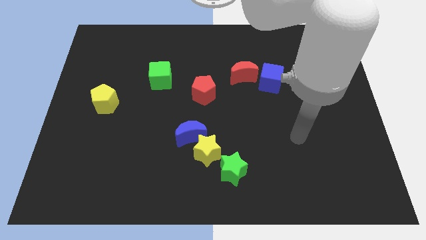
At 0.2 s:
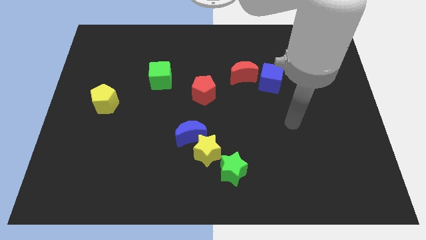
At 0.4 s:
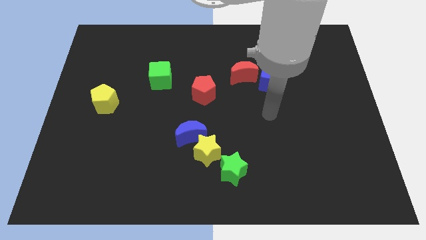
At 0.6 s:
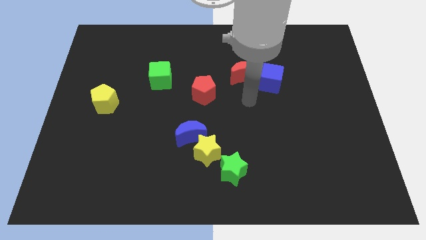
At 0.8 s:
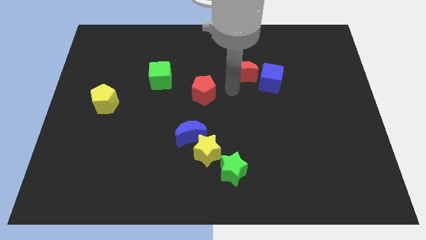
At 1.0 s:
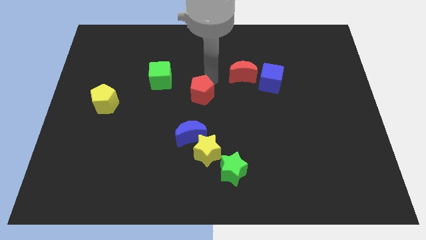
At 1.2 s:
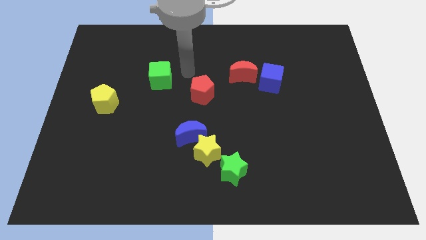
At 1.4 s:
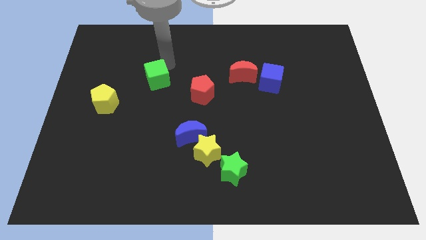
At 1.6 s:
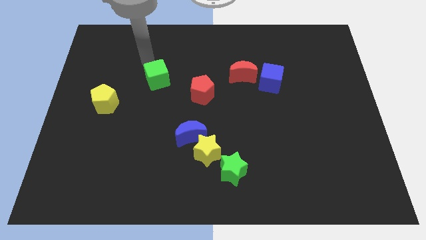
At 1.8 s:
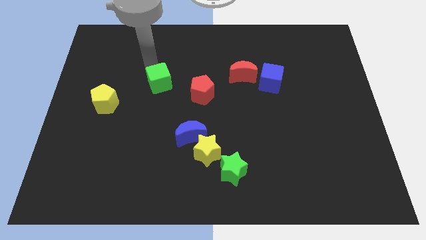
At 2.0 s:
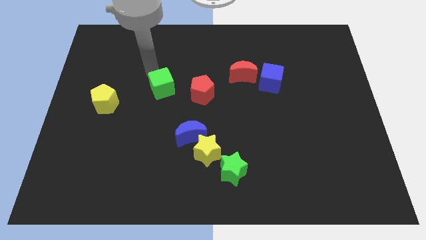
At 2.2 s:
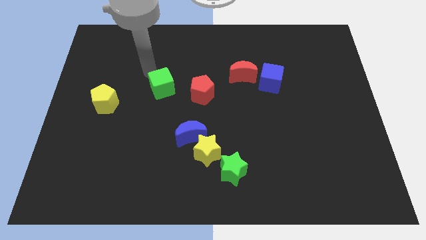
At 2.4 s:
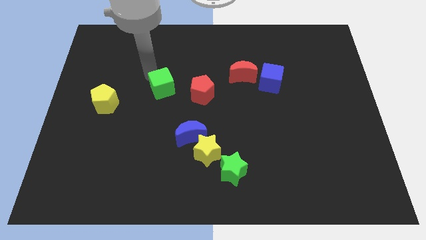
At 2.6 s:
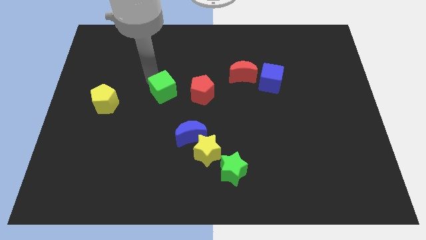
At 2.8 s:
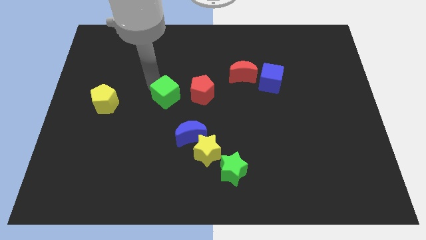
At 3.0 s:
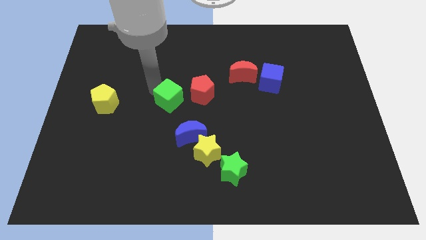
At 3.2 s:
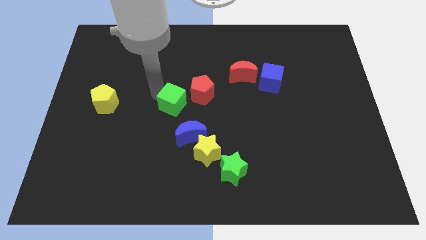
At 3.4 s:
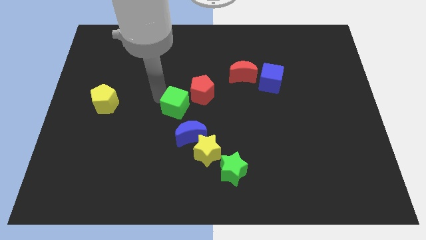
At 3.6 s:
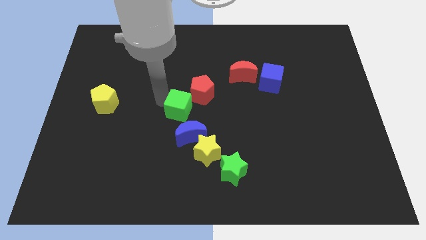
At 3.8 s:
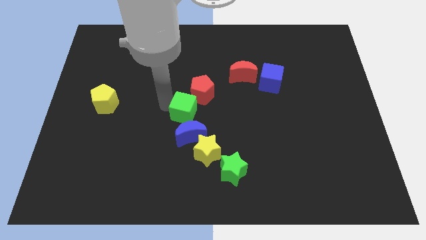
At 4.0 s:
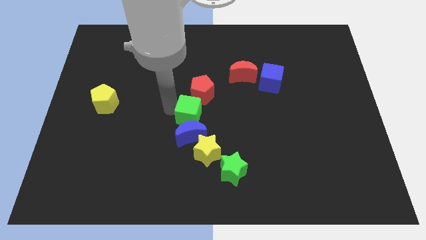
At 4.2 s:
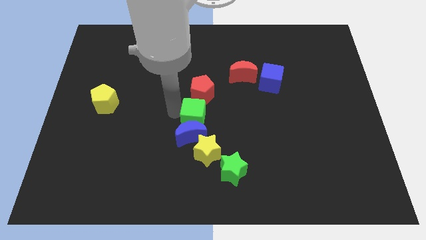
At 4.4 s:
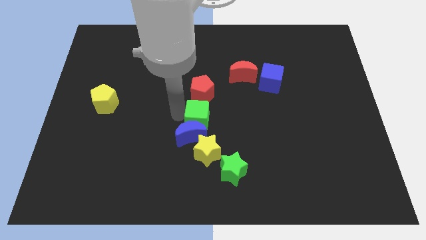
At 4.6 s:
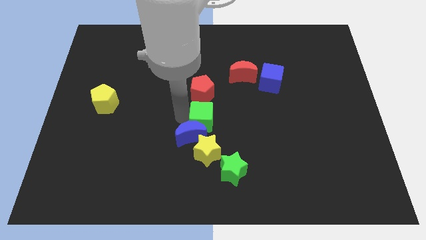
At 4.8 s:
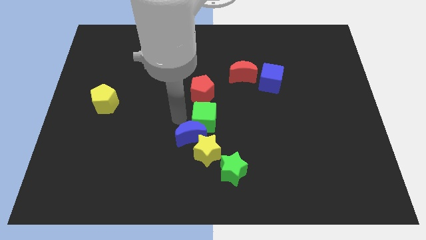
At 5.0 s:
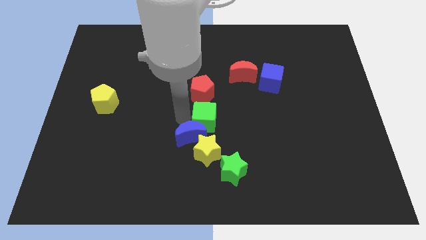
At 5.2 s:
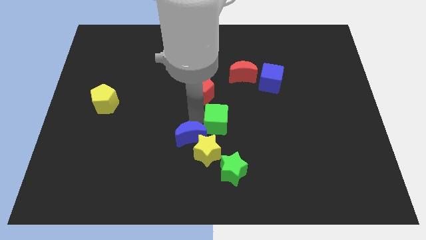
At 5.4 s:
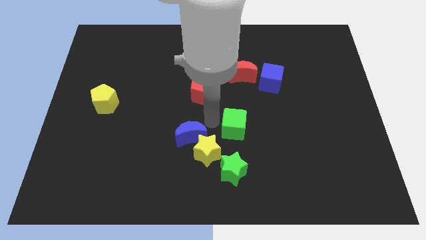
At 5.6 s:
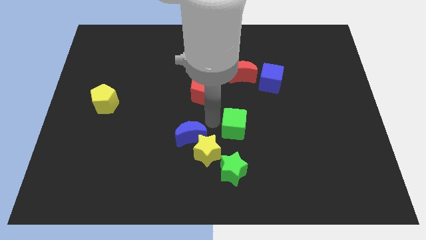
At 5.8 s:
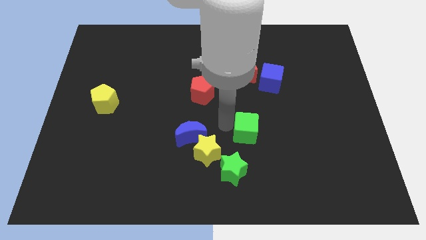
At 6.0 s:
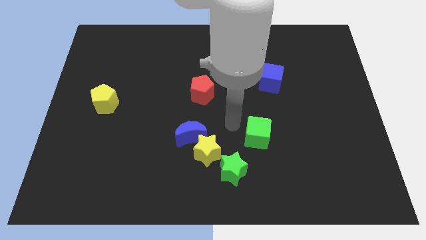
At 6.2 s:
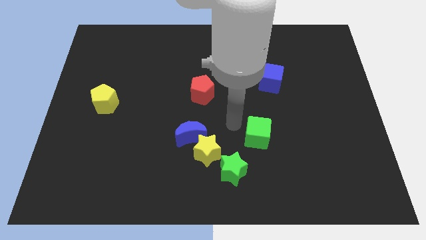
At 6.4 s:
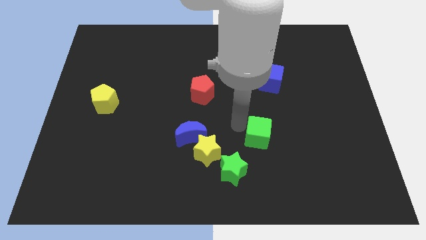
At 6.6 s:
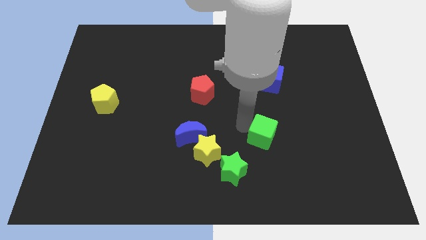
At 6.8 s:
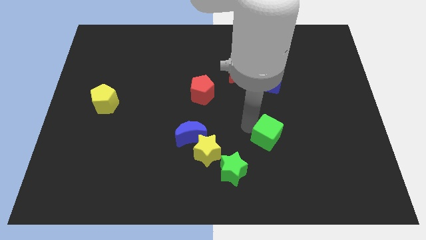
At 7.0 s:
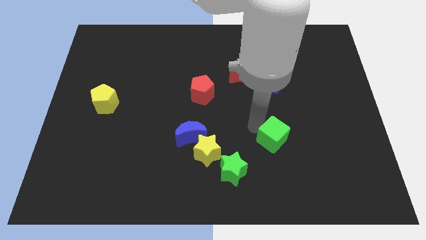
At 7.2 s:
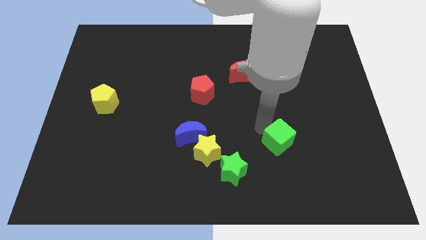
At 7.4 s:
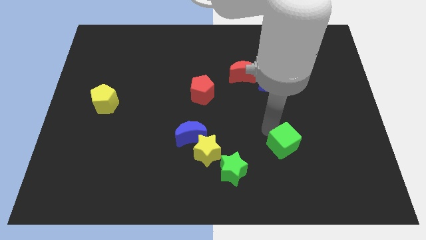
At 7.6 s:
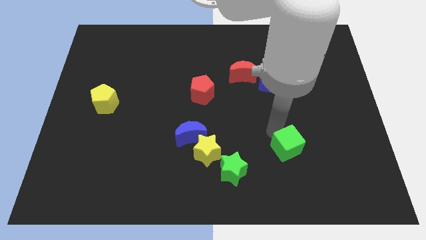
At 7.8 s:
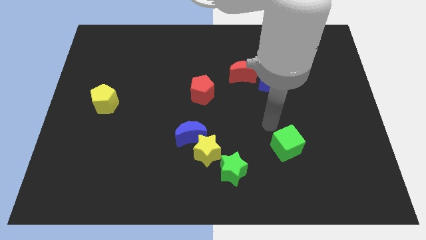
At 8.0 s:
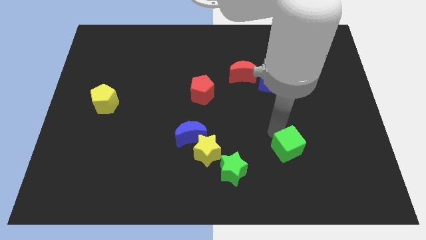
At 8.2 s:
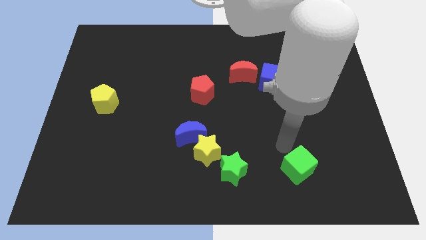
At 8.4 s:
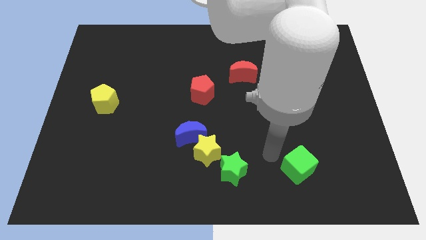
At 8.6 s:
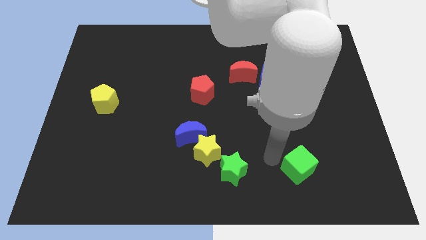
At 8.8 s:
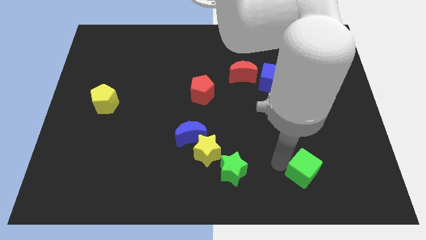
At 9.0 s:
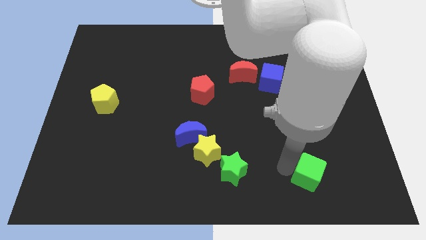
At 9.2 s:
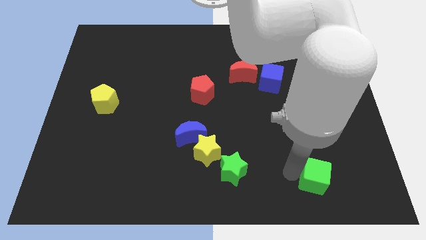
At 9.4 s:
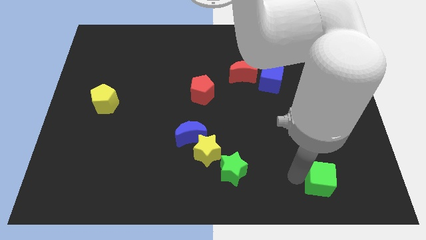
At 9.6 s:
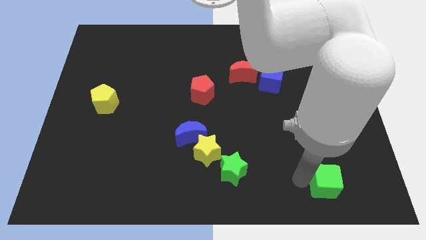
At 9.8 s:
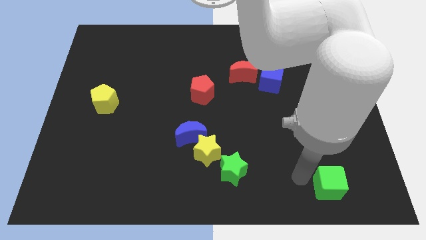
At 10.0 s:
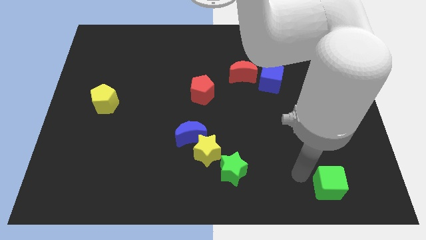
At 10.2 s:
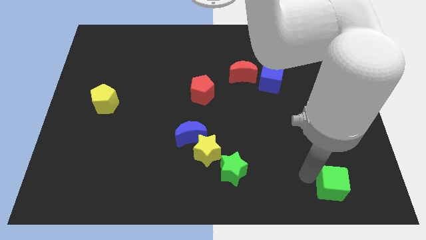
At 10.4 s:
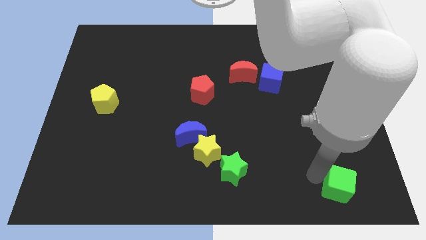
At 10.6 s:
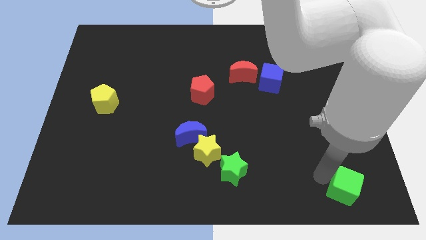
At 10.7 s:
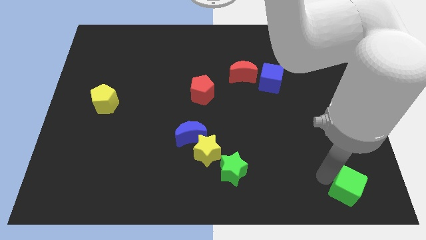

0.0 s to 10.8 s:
put the green cube to the bottom right

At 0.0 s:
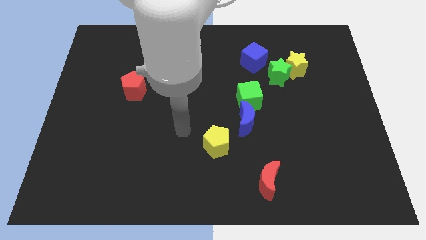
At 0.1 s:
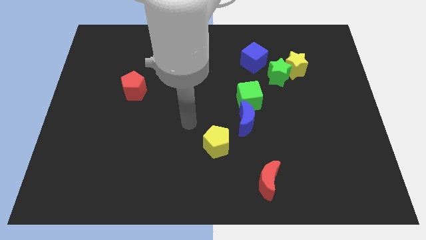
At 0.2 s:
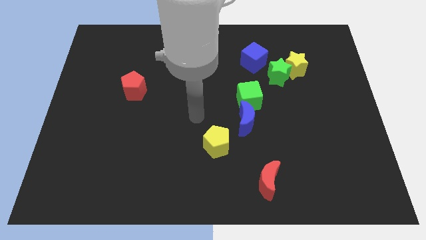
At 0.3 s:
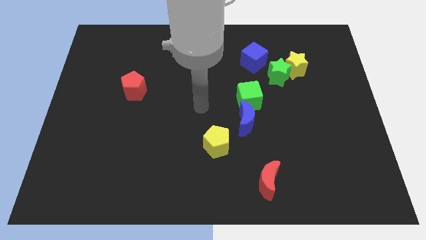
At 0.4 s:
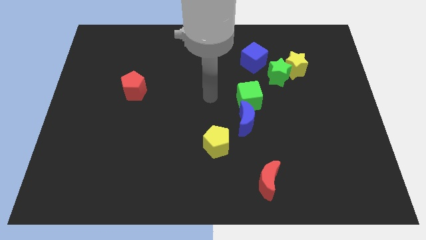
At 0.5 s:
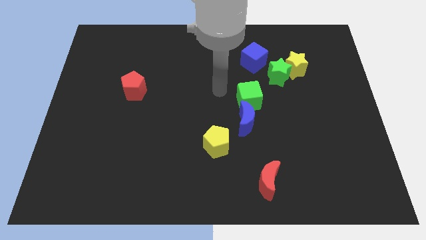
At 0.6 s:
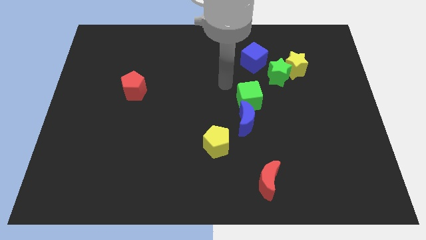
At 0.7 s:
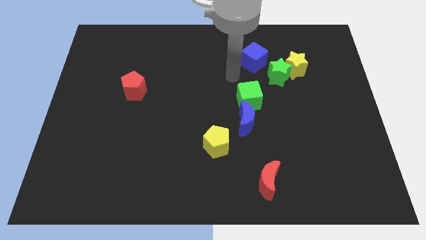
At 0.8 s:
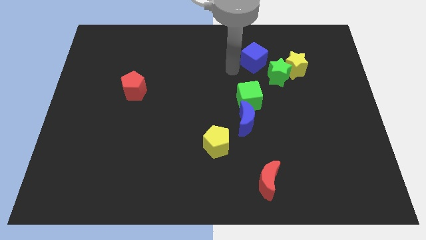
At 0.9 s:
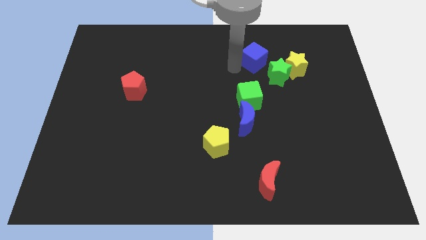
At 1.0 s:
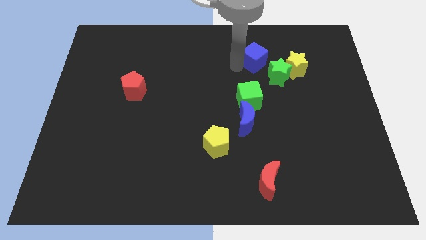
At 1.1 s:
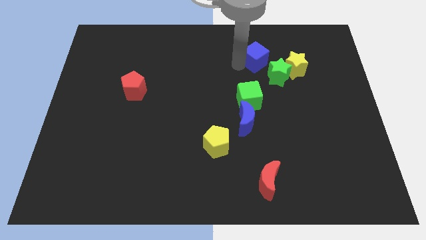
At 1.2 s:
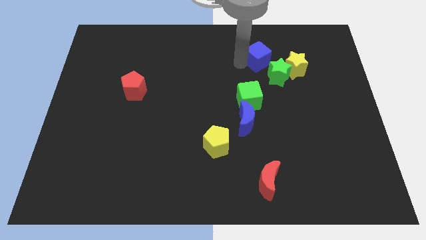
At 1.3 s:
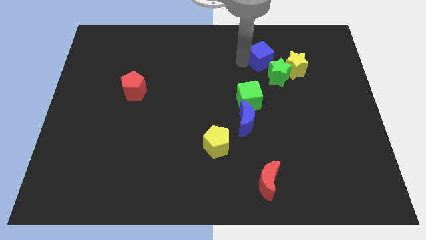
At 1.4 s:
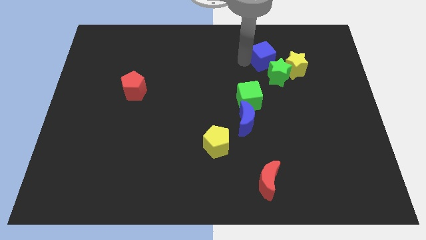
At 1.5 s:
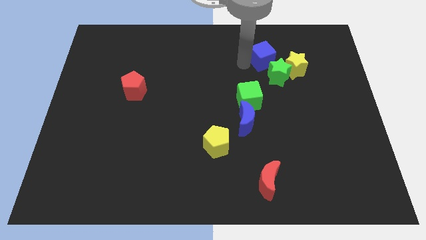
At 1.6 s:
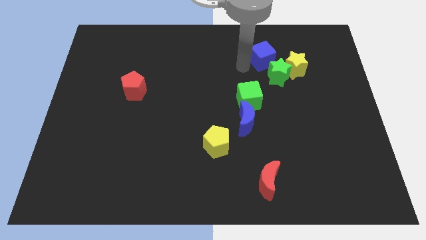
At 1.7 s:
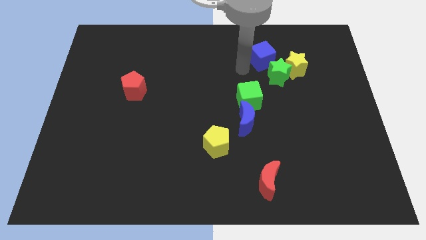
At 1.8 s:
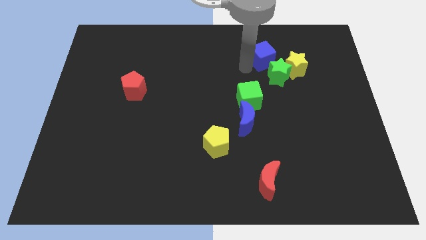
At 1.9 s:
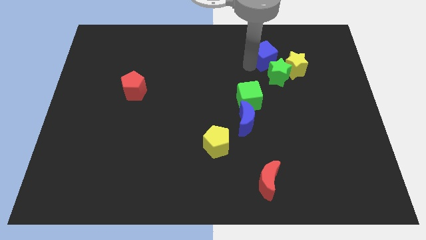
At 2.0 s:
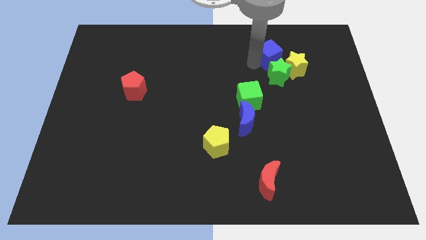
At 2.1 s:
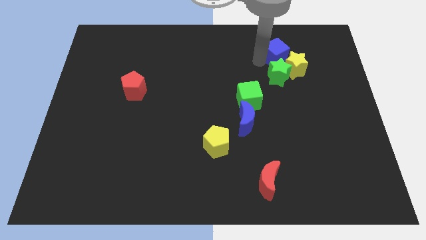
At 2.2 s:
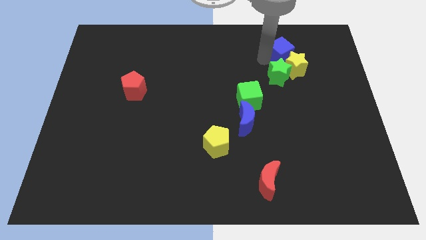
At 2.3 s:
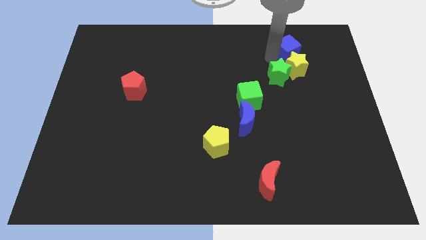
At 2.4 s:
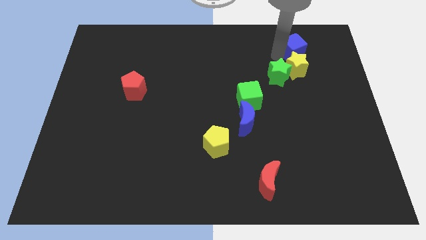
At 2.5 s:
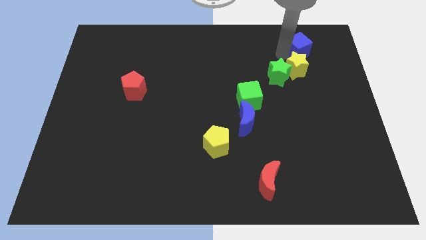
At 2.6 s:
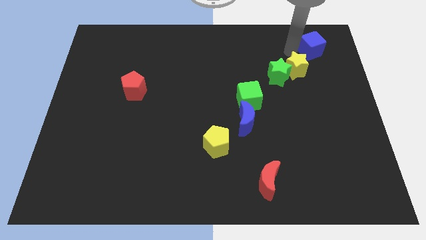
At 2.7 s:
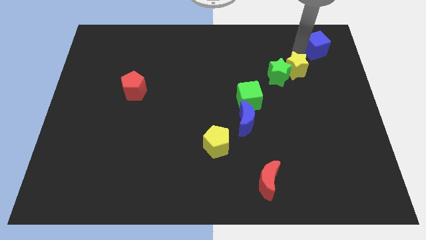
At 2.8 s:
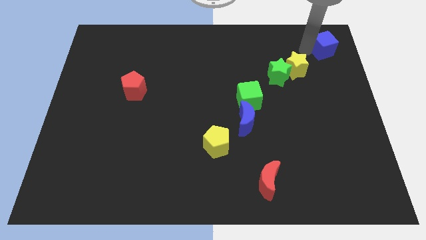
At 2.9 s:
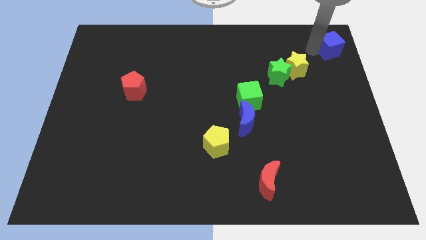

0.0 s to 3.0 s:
push the blue cube to the top right corner
